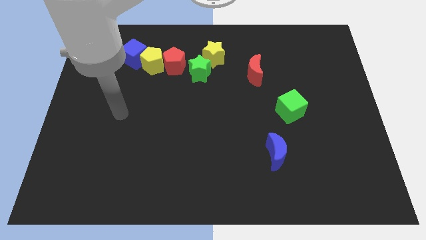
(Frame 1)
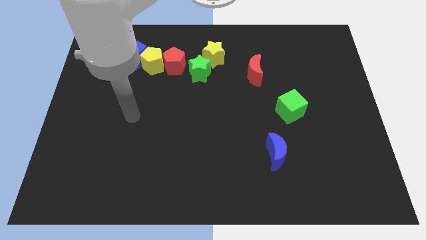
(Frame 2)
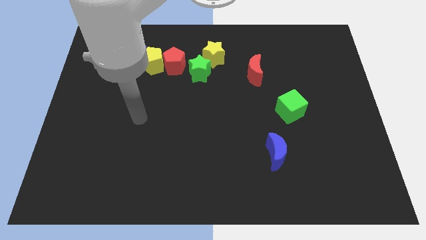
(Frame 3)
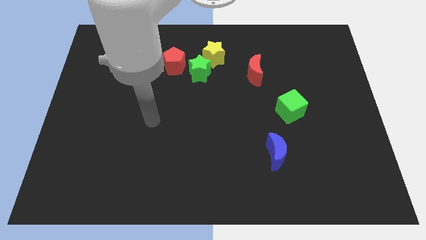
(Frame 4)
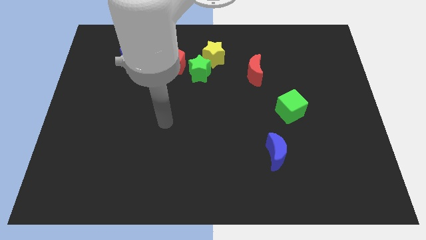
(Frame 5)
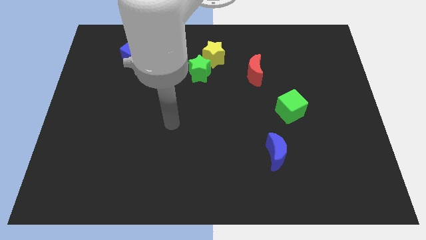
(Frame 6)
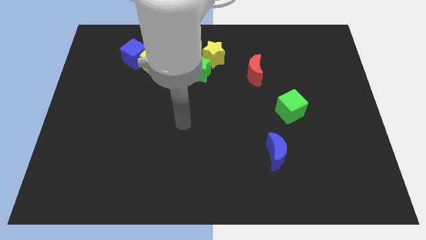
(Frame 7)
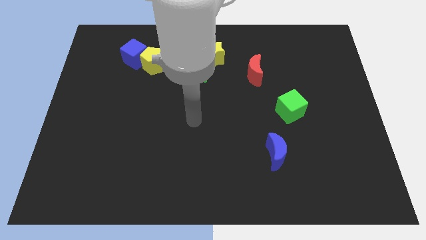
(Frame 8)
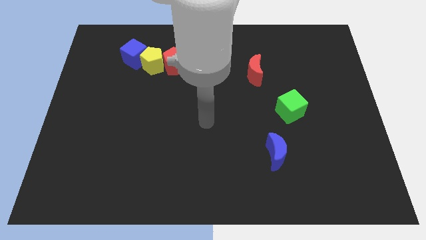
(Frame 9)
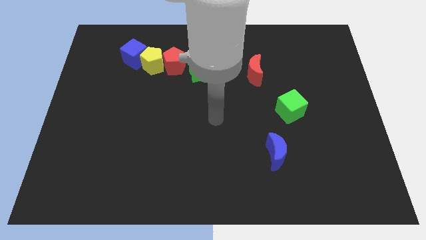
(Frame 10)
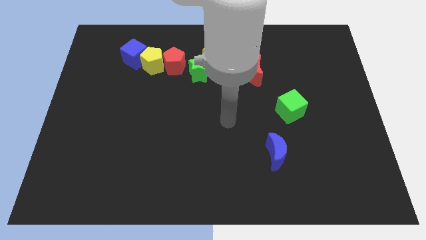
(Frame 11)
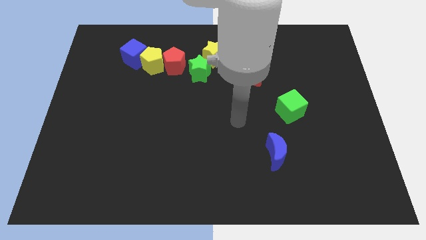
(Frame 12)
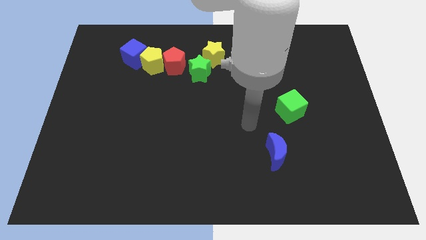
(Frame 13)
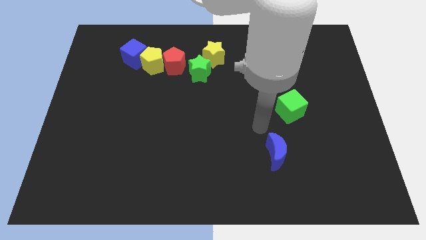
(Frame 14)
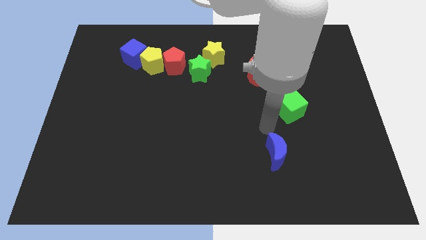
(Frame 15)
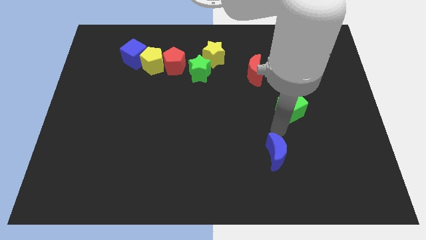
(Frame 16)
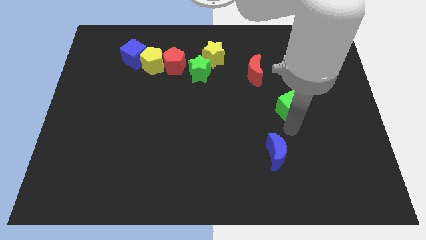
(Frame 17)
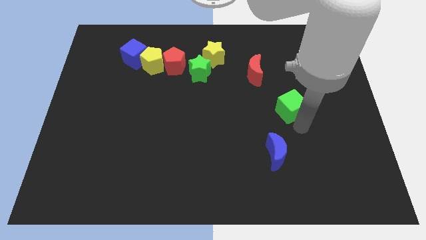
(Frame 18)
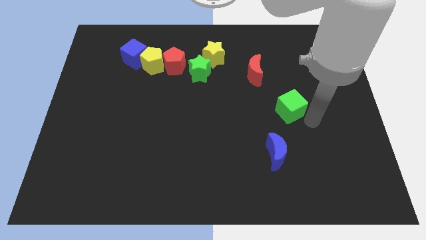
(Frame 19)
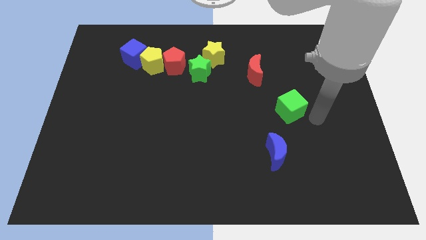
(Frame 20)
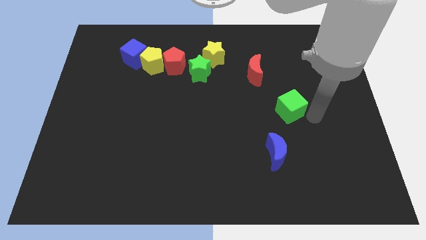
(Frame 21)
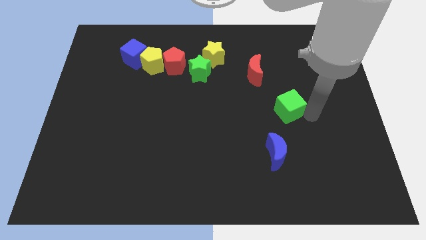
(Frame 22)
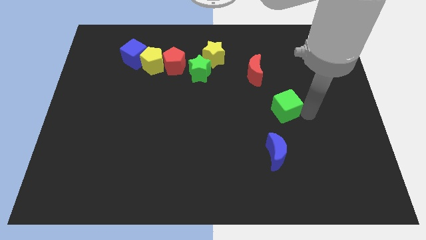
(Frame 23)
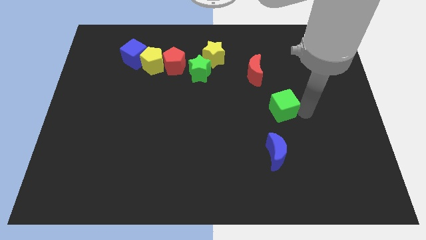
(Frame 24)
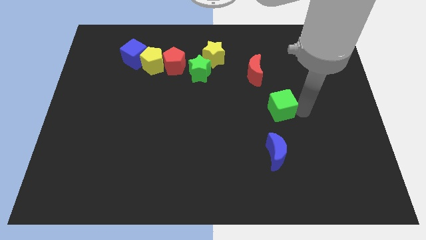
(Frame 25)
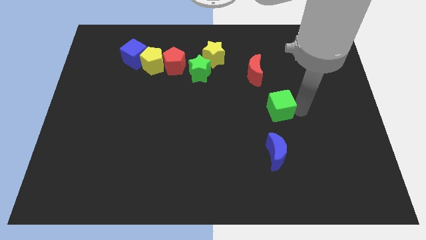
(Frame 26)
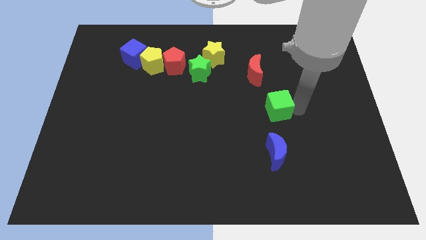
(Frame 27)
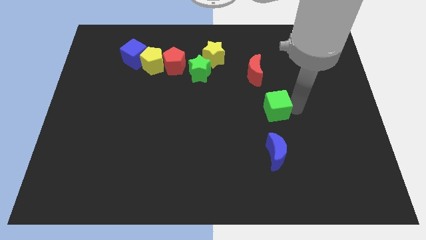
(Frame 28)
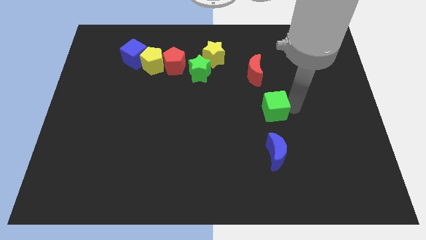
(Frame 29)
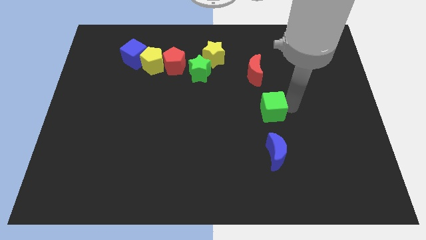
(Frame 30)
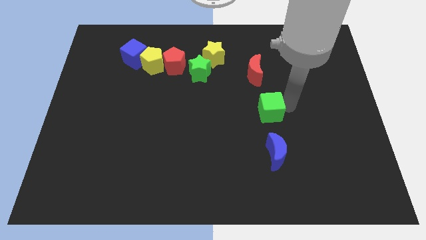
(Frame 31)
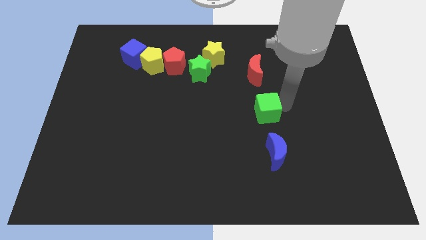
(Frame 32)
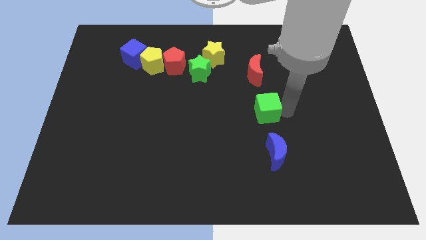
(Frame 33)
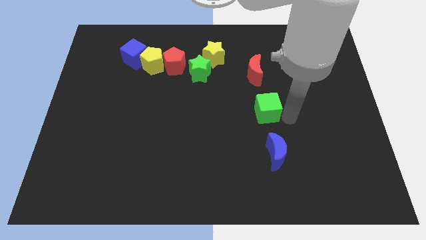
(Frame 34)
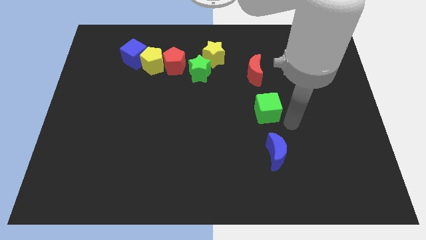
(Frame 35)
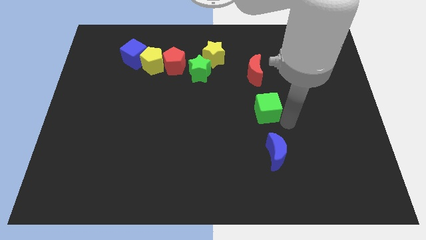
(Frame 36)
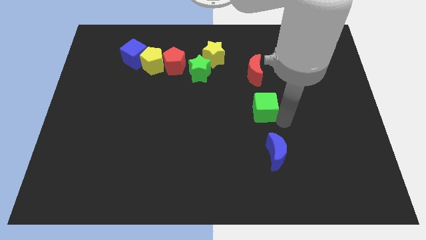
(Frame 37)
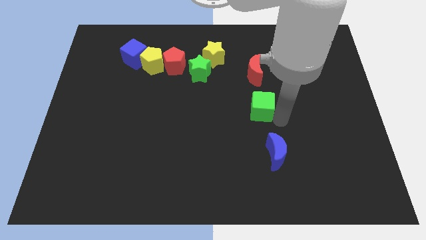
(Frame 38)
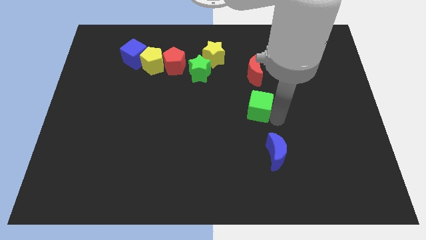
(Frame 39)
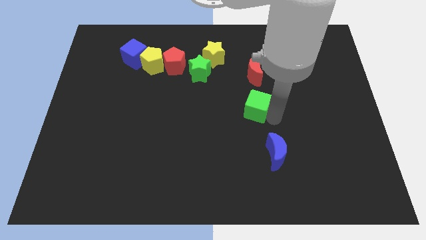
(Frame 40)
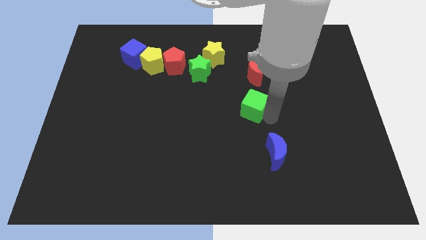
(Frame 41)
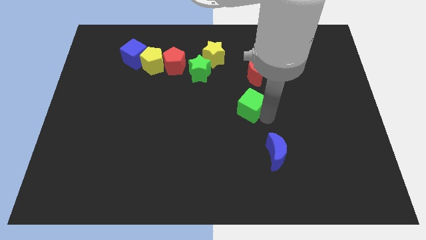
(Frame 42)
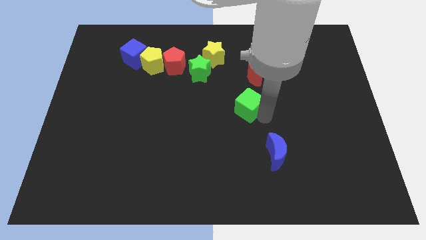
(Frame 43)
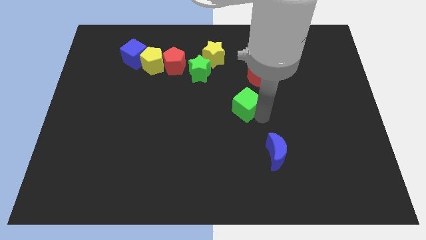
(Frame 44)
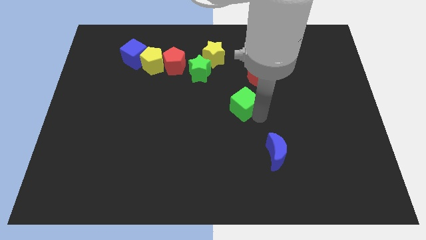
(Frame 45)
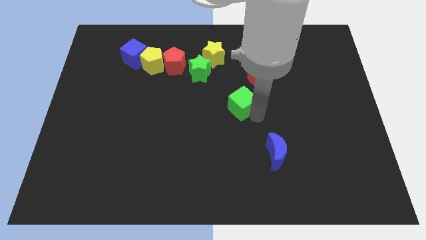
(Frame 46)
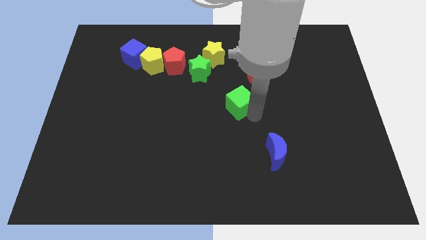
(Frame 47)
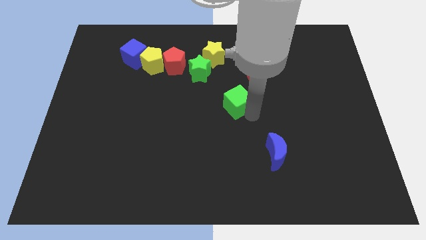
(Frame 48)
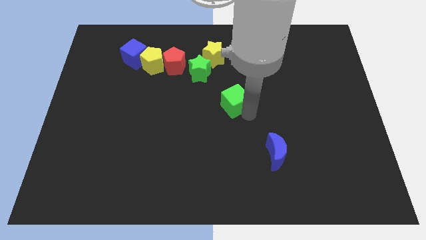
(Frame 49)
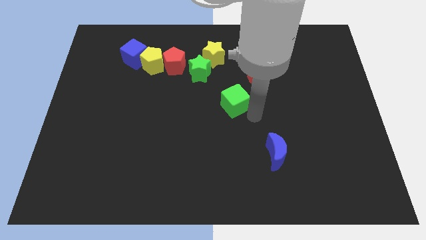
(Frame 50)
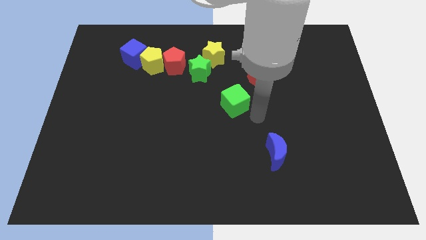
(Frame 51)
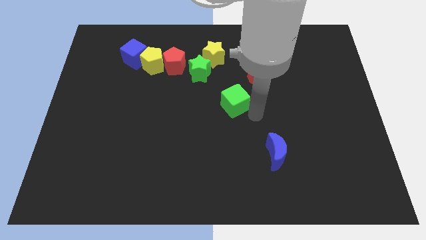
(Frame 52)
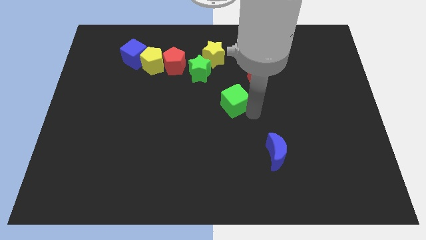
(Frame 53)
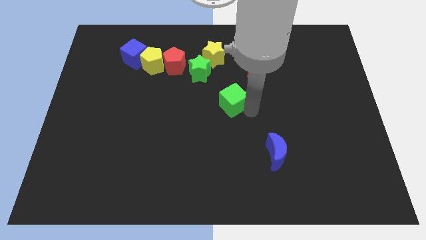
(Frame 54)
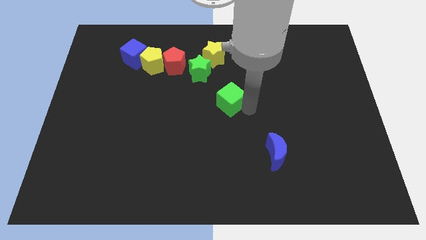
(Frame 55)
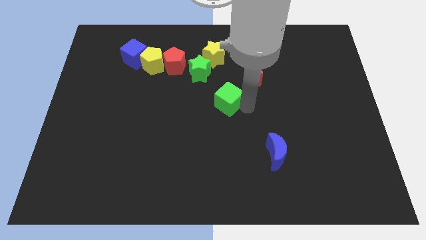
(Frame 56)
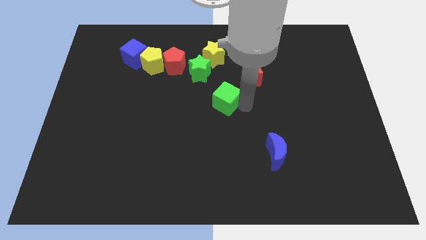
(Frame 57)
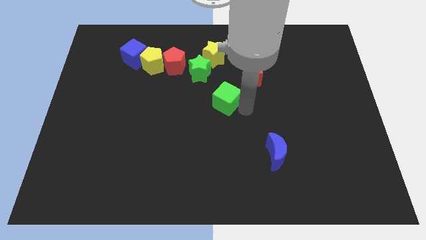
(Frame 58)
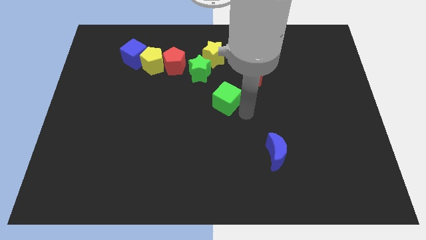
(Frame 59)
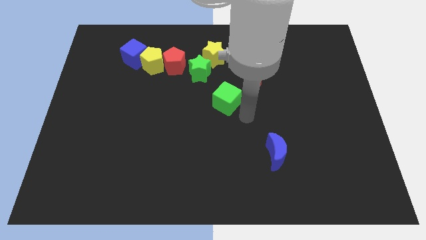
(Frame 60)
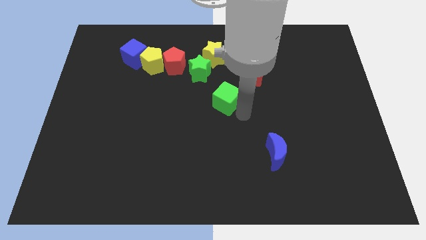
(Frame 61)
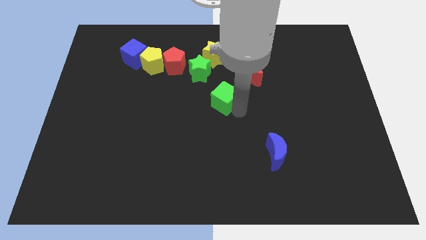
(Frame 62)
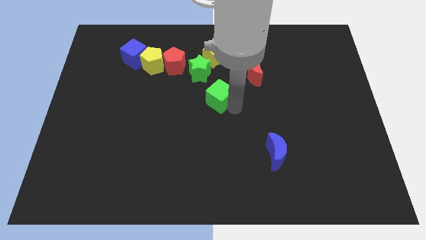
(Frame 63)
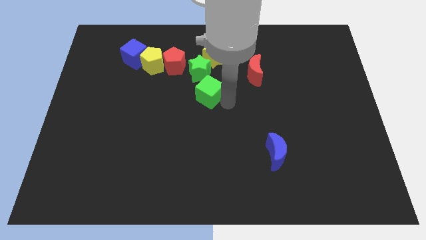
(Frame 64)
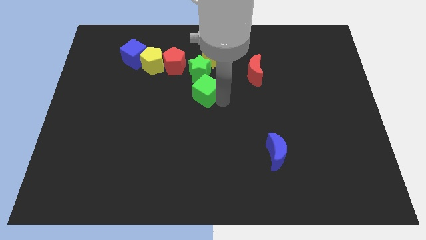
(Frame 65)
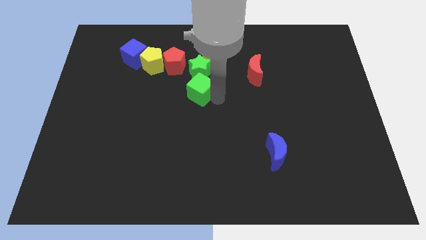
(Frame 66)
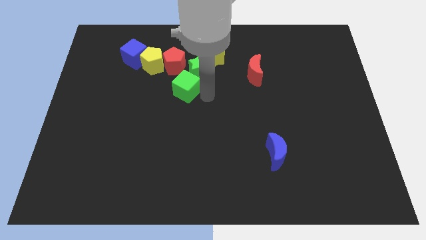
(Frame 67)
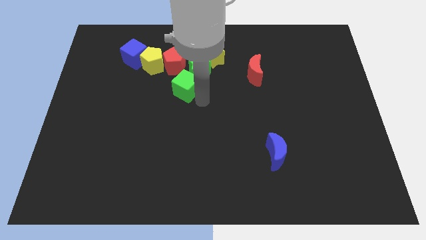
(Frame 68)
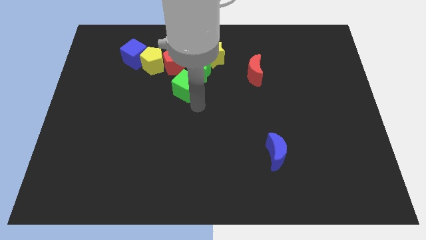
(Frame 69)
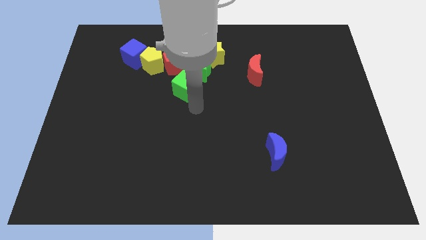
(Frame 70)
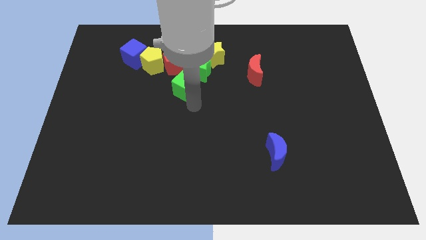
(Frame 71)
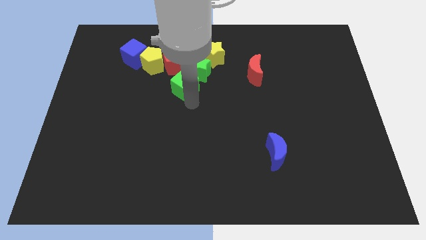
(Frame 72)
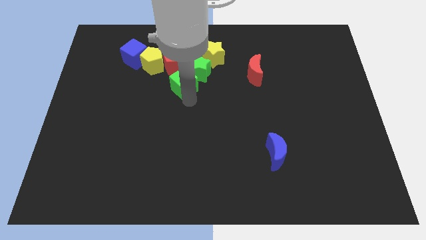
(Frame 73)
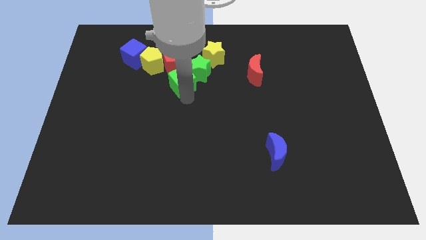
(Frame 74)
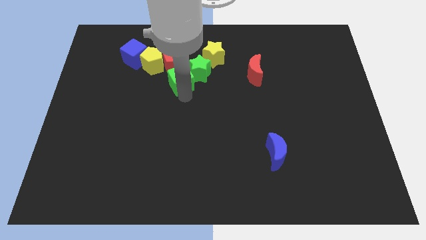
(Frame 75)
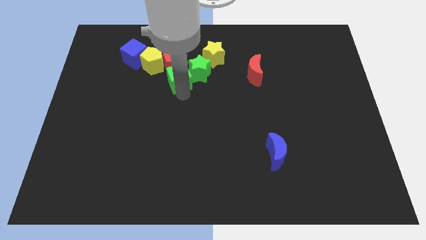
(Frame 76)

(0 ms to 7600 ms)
push the green cube next to the red pentagon
